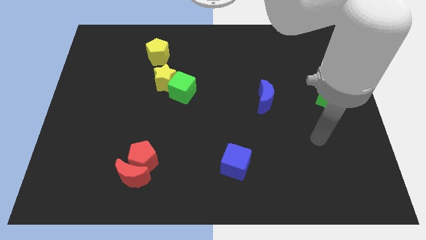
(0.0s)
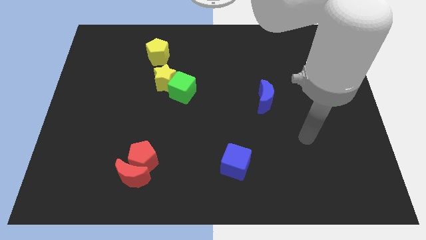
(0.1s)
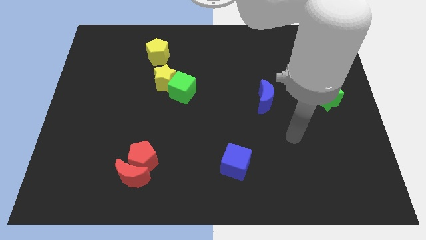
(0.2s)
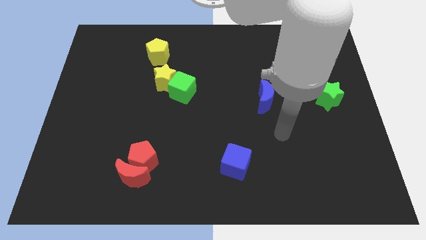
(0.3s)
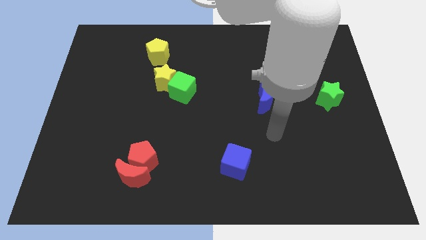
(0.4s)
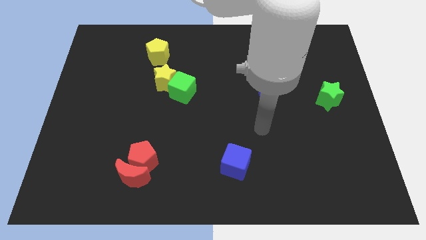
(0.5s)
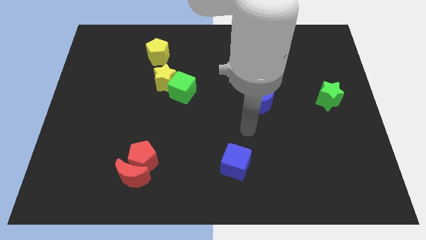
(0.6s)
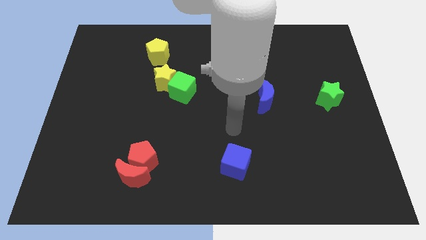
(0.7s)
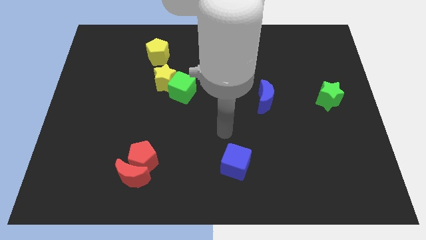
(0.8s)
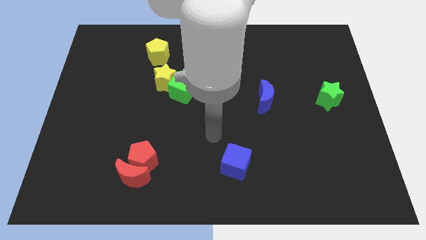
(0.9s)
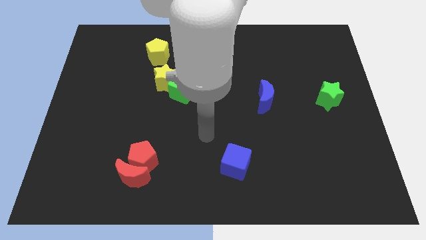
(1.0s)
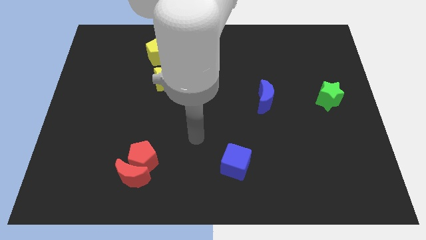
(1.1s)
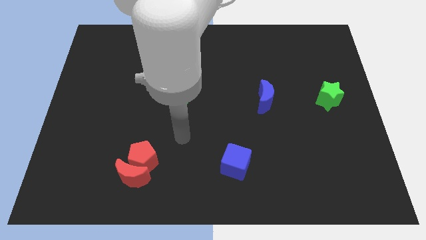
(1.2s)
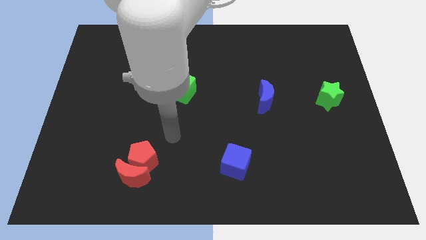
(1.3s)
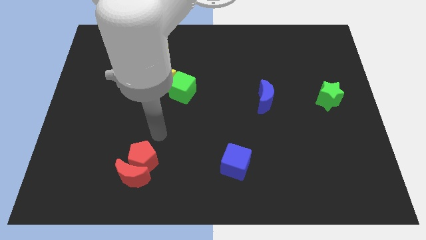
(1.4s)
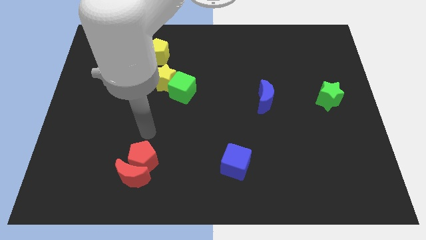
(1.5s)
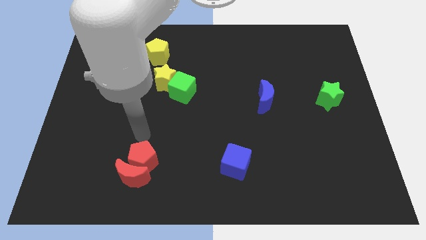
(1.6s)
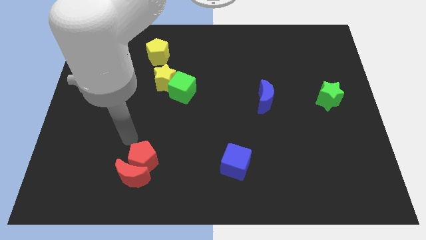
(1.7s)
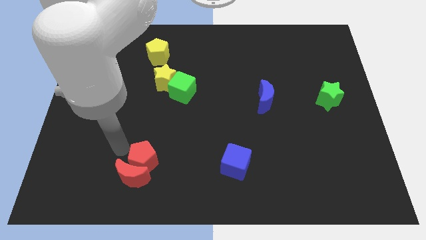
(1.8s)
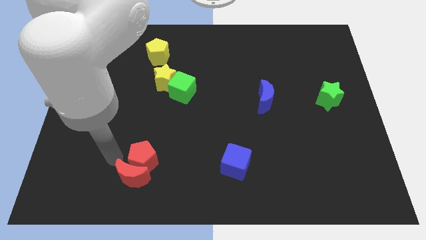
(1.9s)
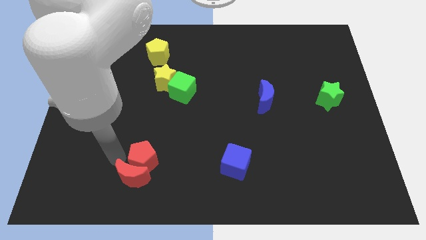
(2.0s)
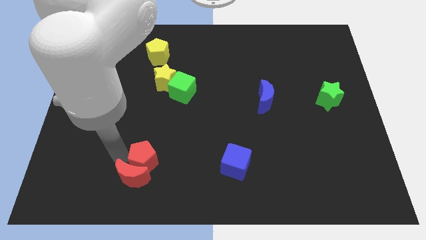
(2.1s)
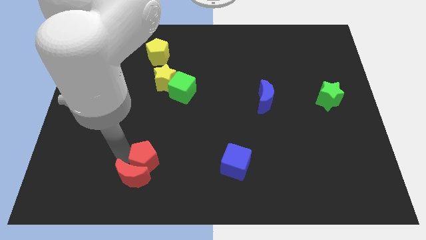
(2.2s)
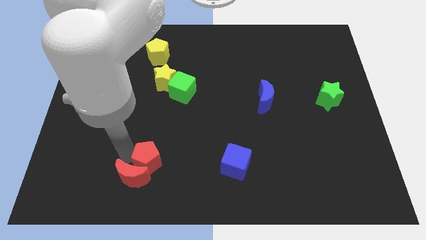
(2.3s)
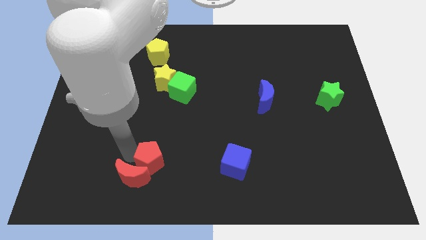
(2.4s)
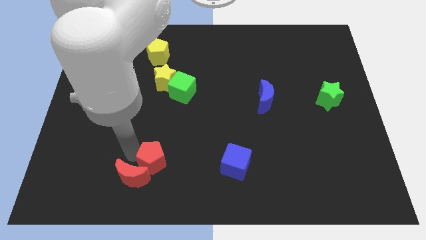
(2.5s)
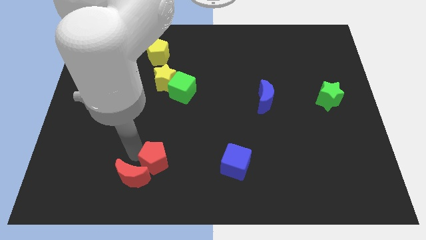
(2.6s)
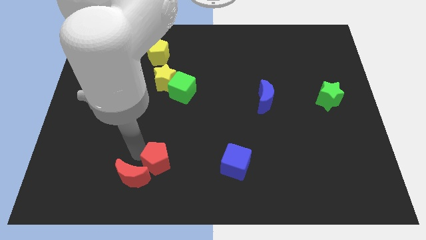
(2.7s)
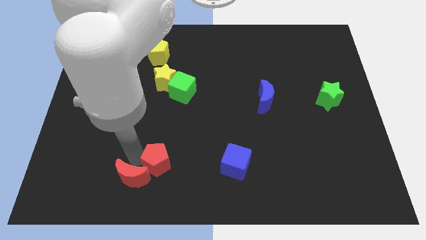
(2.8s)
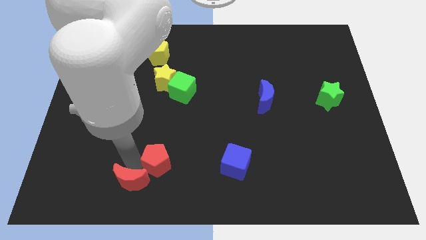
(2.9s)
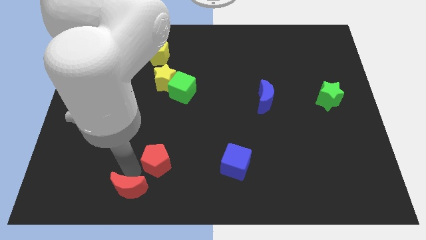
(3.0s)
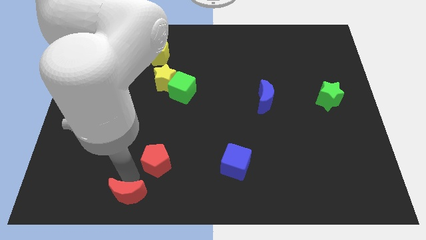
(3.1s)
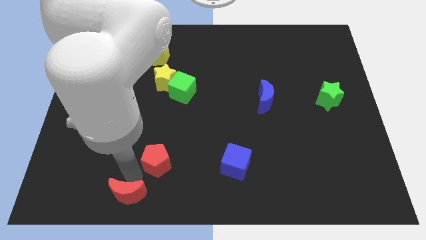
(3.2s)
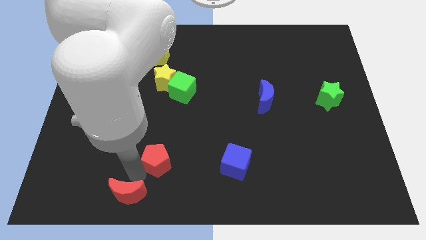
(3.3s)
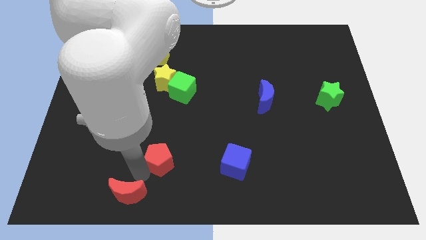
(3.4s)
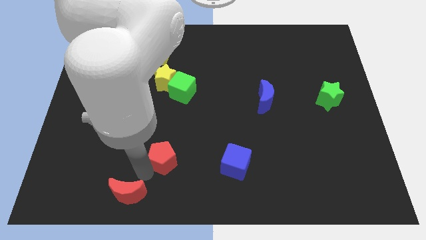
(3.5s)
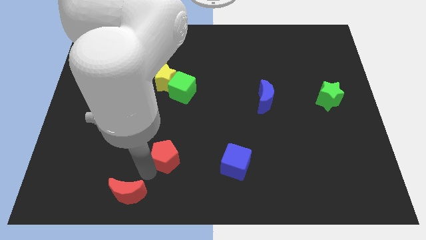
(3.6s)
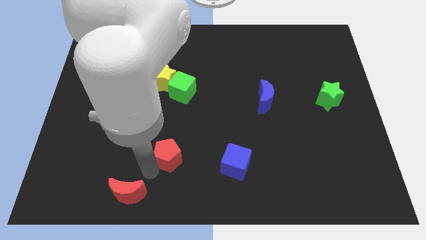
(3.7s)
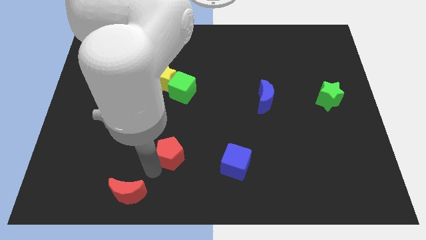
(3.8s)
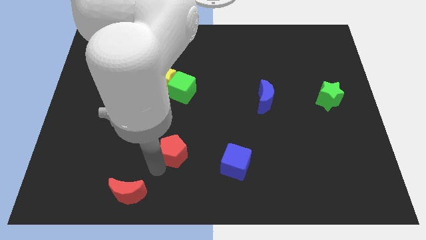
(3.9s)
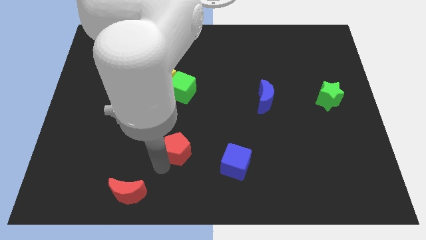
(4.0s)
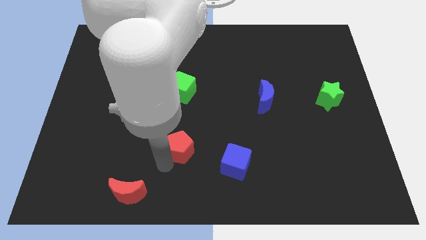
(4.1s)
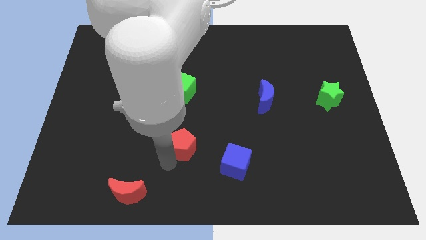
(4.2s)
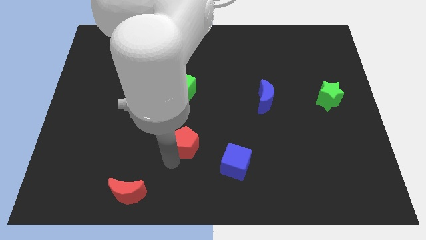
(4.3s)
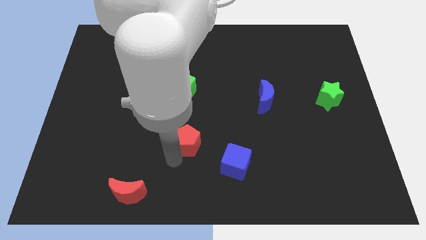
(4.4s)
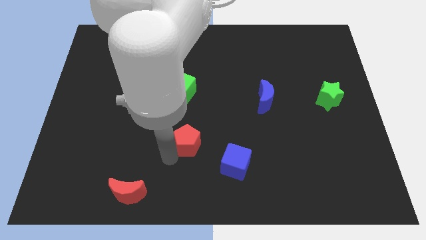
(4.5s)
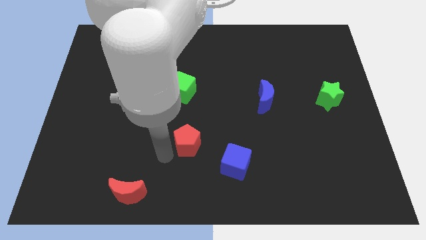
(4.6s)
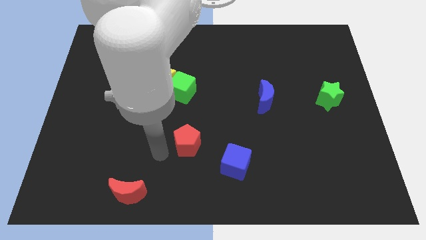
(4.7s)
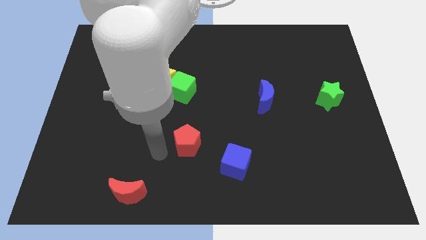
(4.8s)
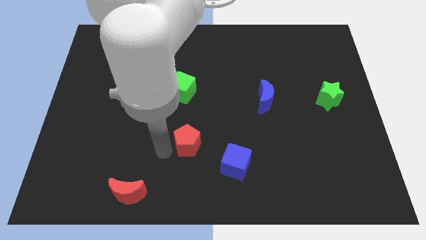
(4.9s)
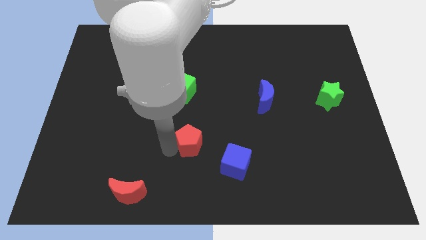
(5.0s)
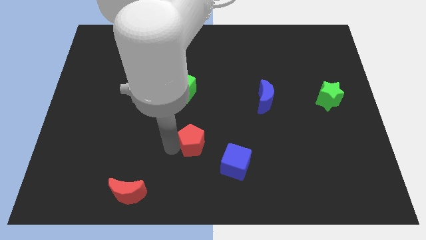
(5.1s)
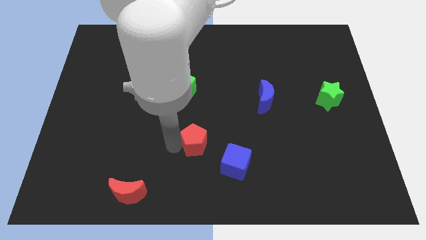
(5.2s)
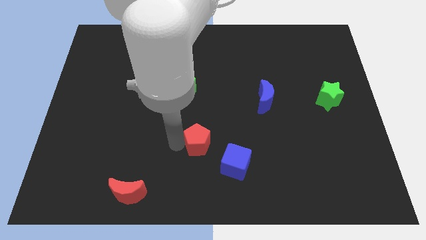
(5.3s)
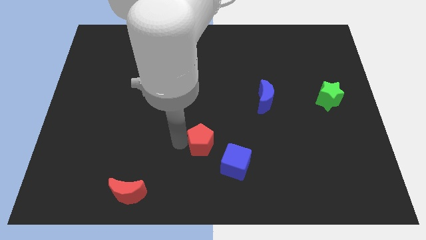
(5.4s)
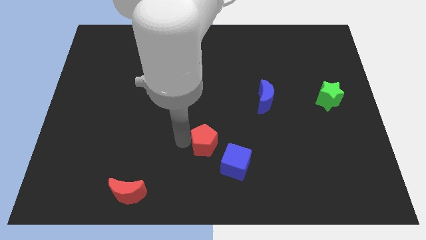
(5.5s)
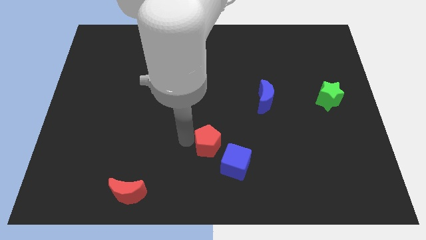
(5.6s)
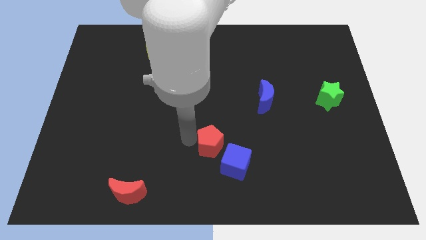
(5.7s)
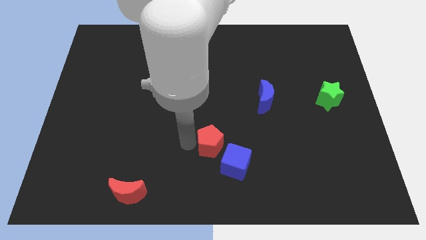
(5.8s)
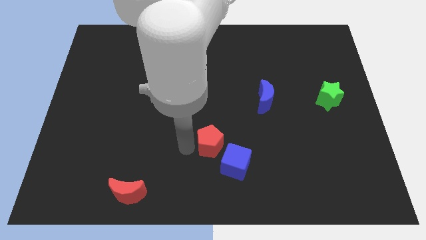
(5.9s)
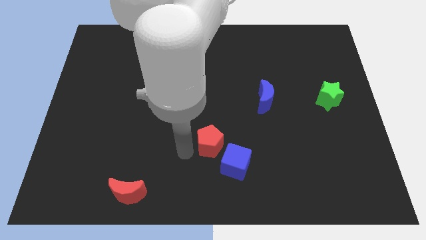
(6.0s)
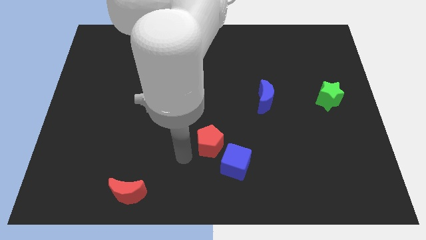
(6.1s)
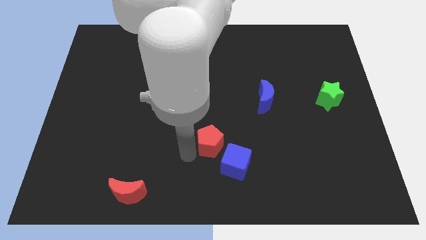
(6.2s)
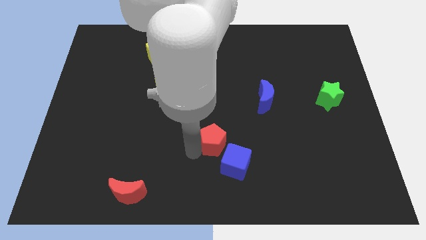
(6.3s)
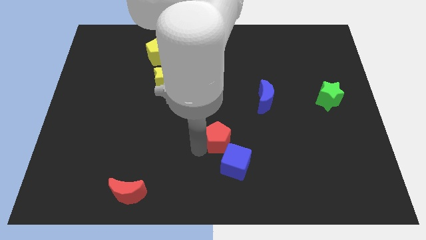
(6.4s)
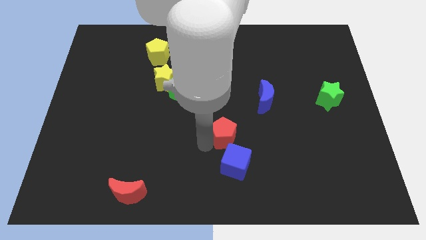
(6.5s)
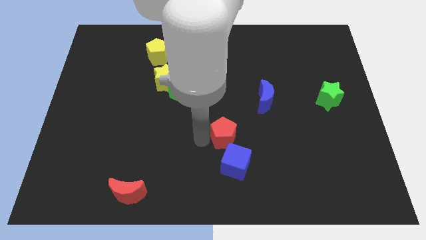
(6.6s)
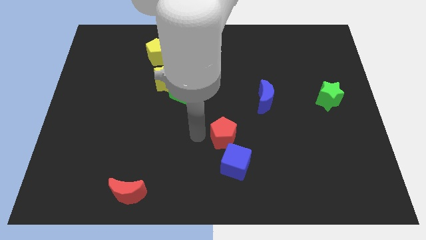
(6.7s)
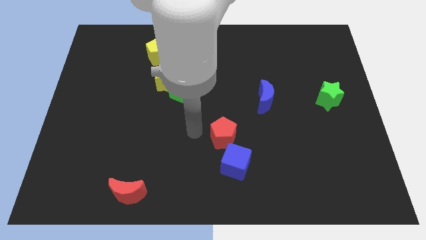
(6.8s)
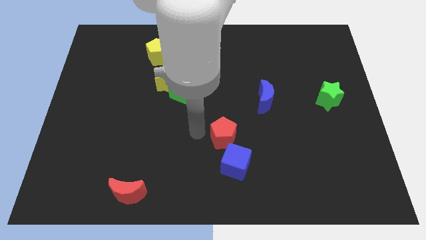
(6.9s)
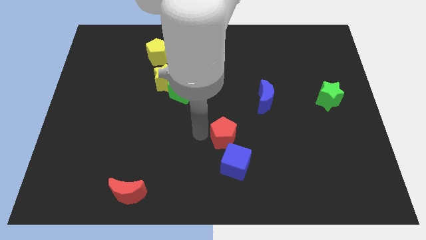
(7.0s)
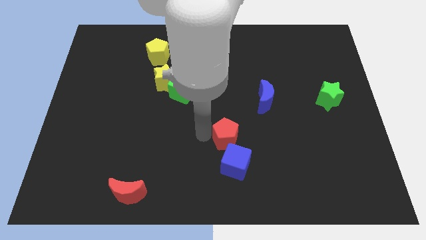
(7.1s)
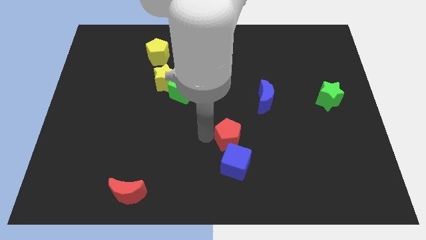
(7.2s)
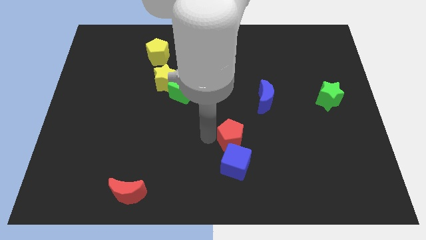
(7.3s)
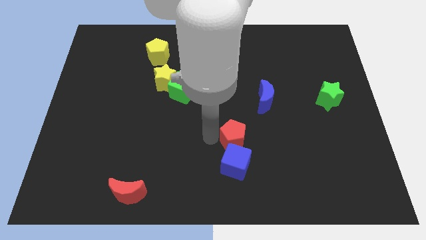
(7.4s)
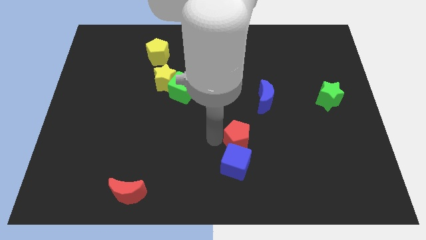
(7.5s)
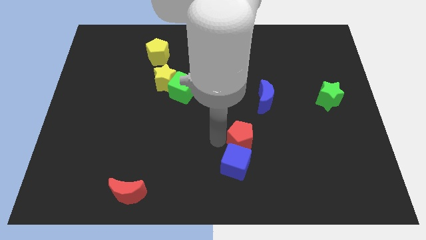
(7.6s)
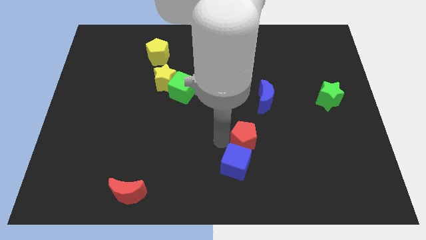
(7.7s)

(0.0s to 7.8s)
move the red pentagon to the right

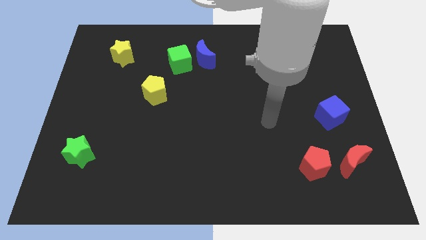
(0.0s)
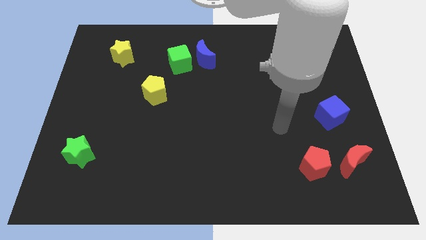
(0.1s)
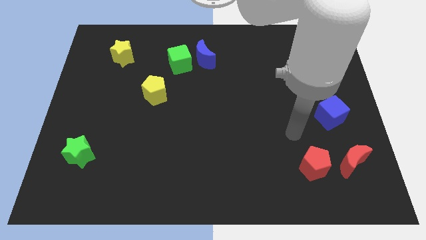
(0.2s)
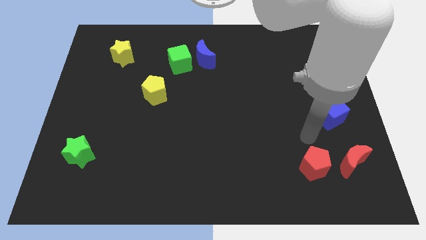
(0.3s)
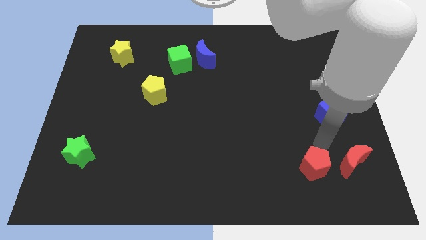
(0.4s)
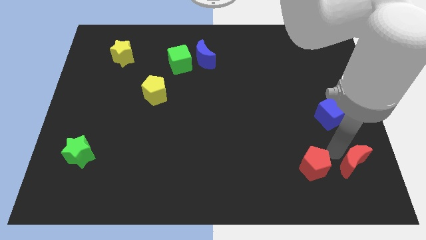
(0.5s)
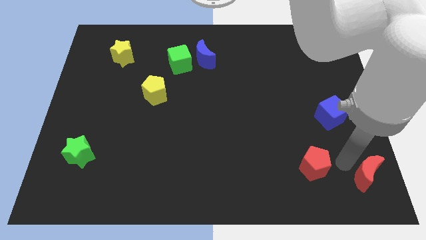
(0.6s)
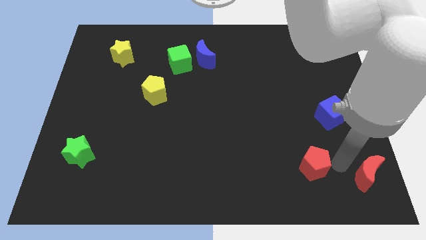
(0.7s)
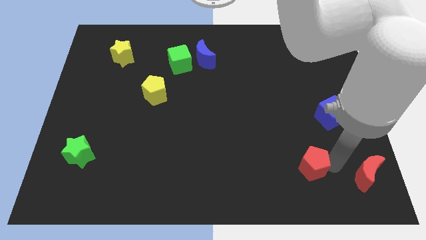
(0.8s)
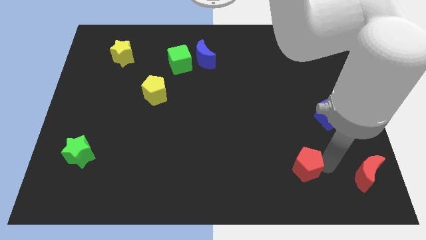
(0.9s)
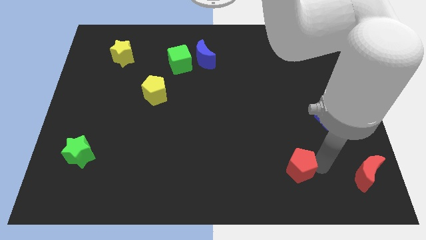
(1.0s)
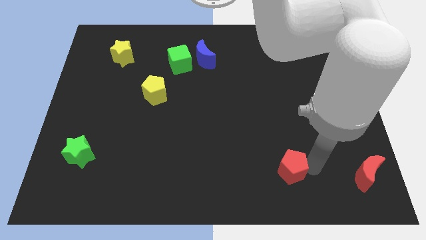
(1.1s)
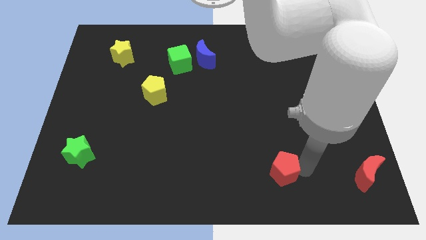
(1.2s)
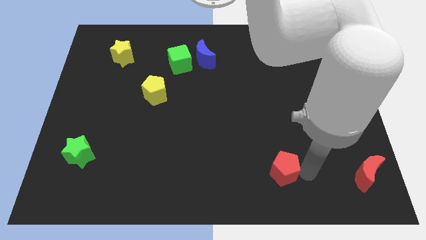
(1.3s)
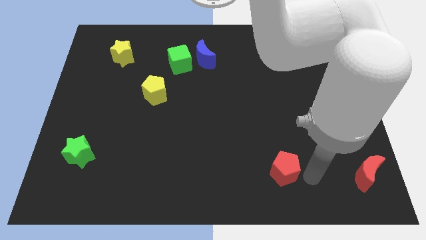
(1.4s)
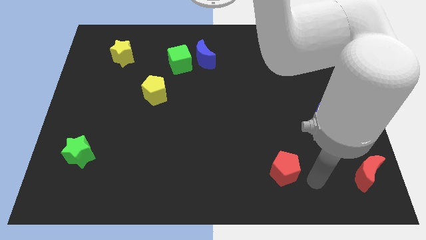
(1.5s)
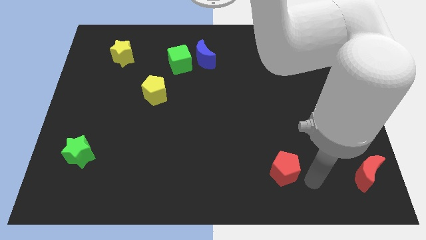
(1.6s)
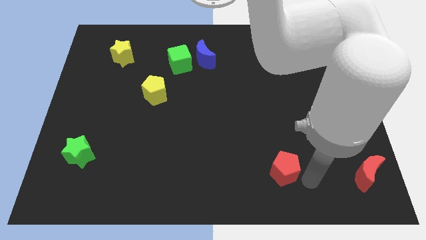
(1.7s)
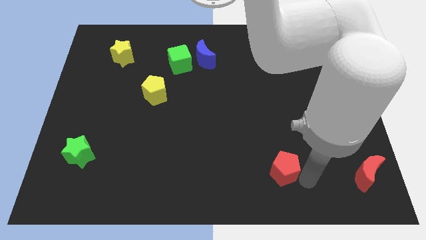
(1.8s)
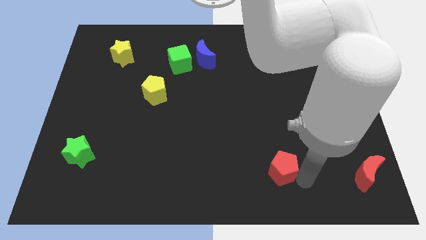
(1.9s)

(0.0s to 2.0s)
slightly slide the red pentagon left
